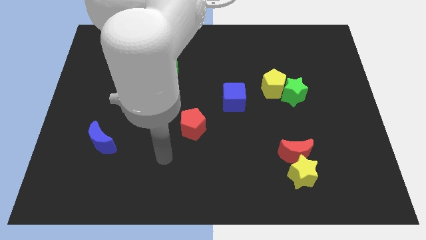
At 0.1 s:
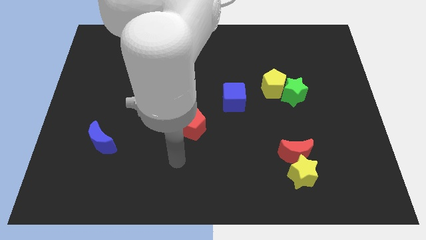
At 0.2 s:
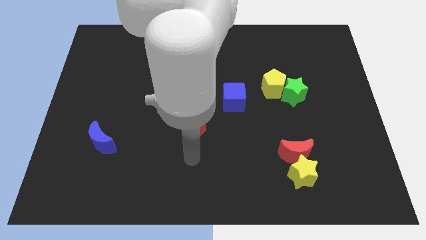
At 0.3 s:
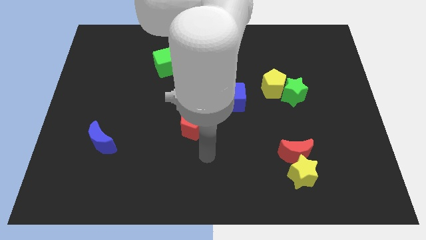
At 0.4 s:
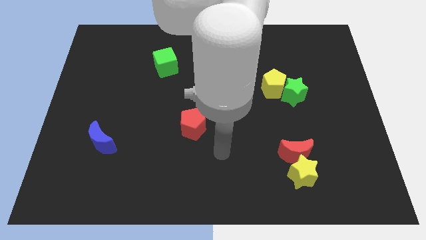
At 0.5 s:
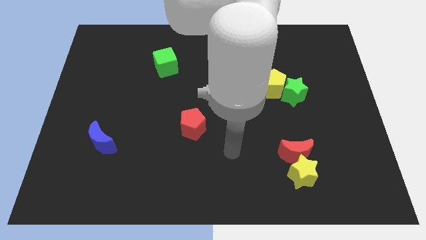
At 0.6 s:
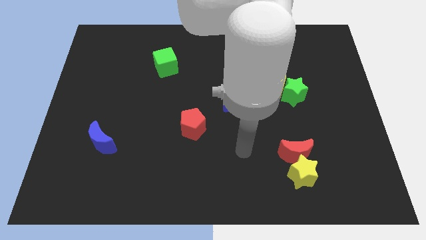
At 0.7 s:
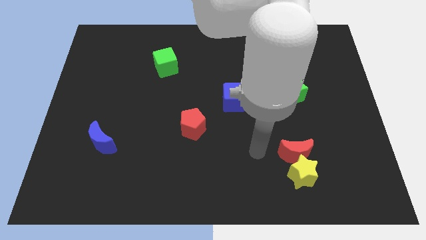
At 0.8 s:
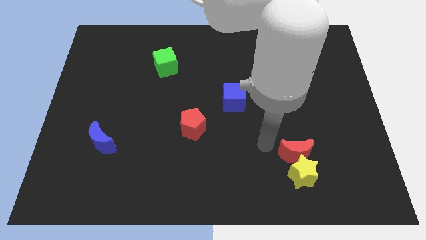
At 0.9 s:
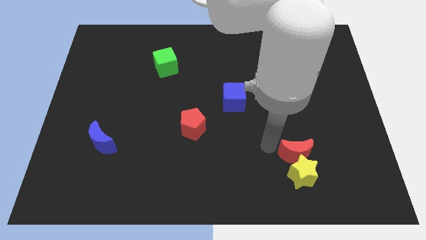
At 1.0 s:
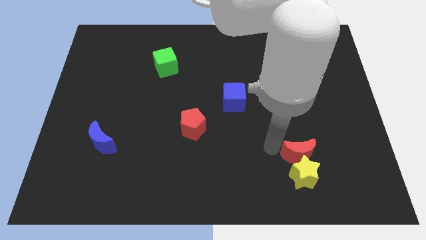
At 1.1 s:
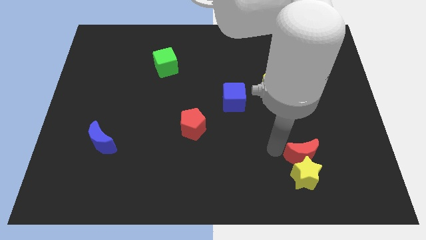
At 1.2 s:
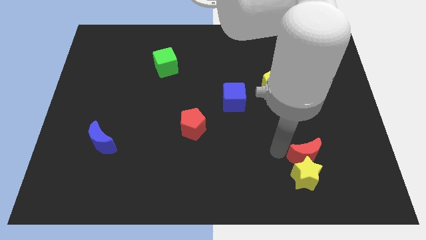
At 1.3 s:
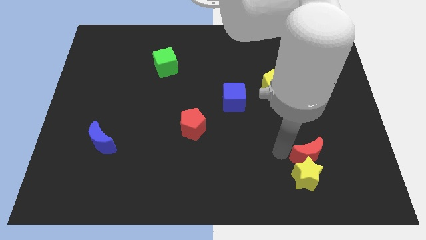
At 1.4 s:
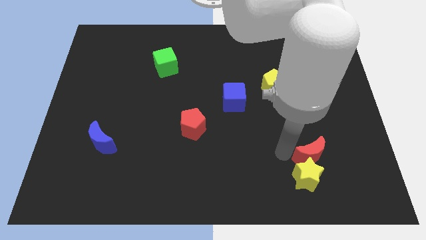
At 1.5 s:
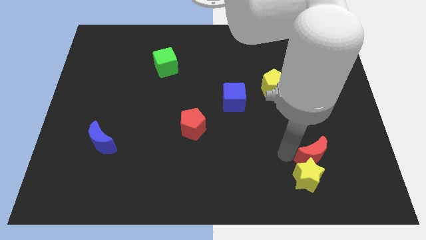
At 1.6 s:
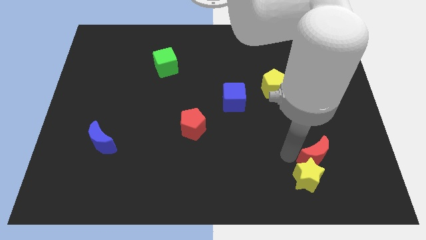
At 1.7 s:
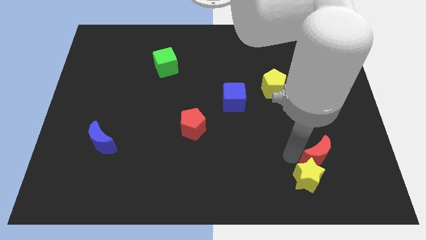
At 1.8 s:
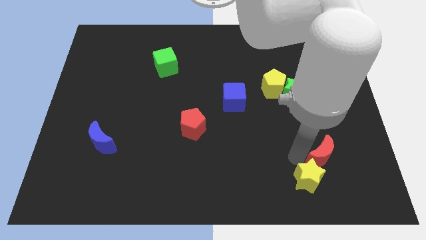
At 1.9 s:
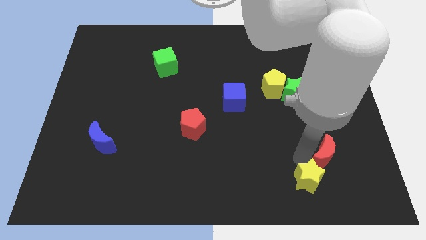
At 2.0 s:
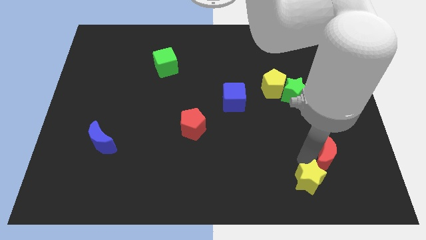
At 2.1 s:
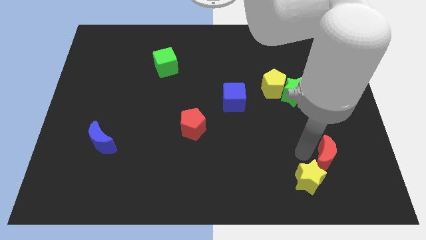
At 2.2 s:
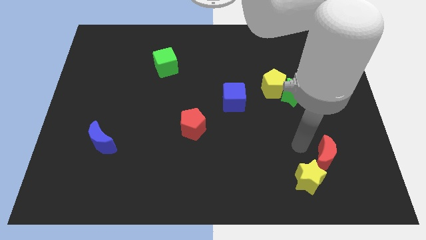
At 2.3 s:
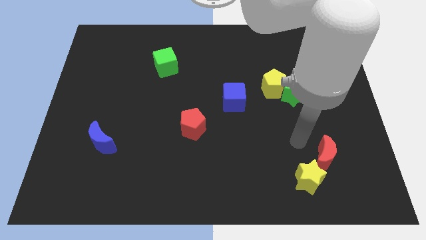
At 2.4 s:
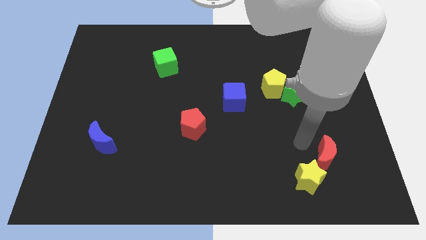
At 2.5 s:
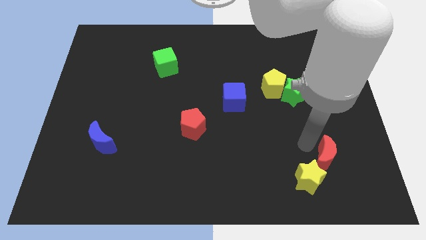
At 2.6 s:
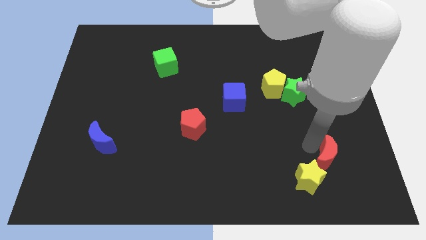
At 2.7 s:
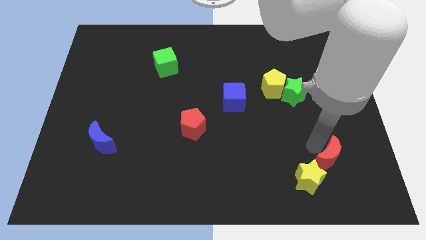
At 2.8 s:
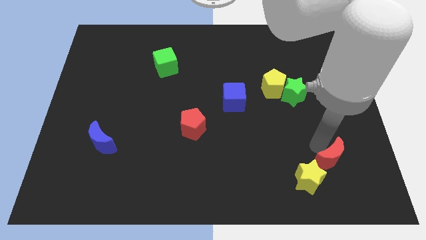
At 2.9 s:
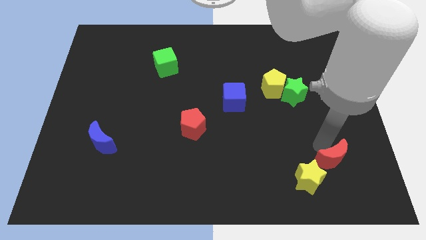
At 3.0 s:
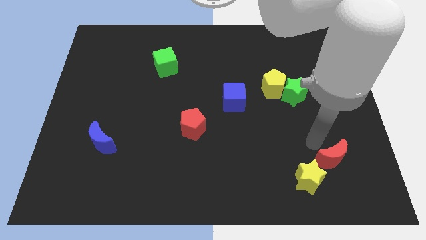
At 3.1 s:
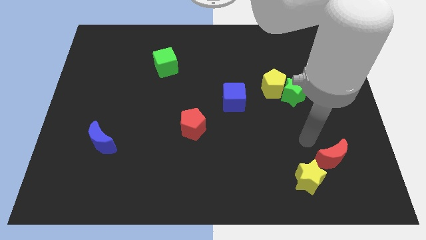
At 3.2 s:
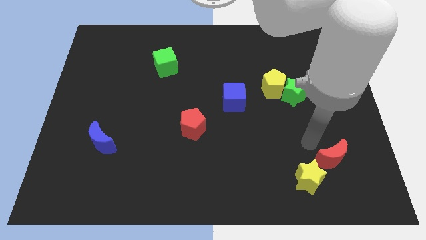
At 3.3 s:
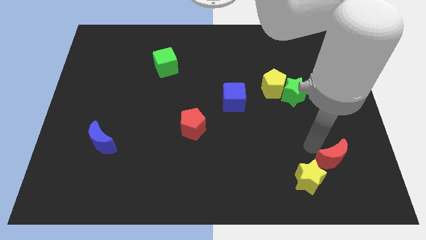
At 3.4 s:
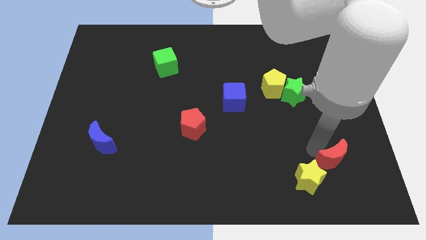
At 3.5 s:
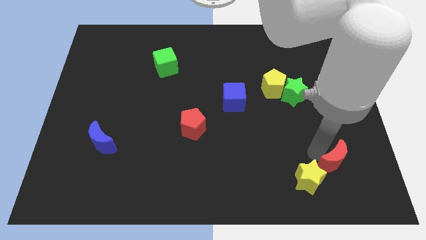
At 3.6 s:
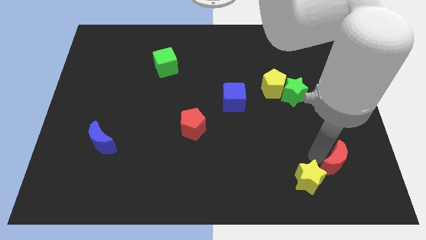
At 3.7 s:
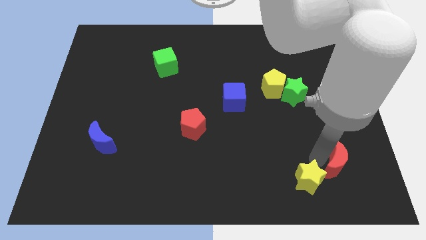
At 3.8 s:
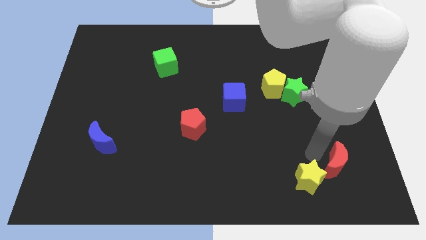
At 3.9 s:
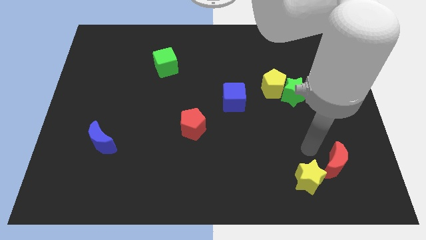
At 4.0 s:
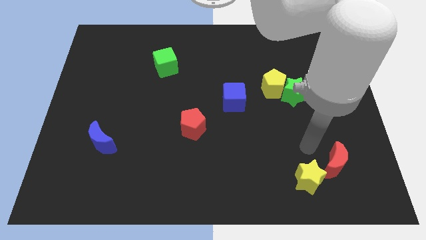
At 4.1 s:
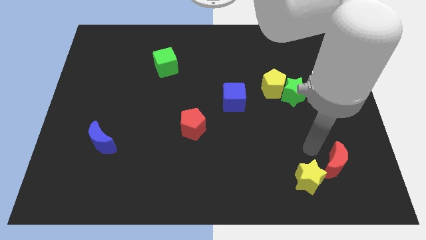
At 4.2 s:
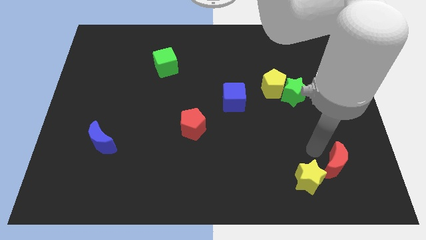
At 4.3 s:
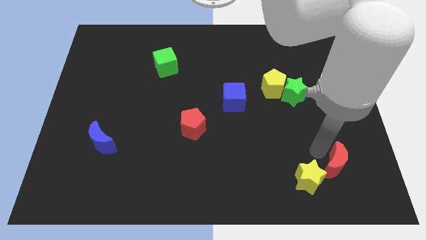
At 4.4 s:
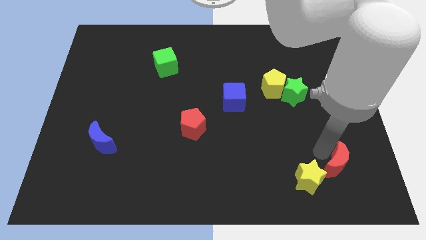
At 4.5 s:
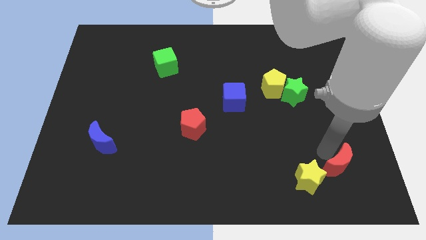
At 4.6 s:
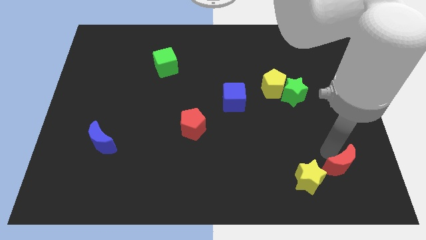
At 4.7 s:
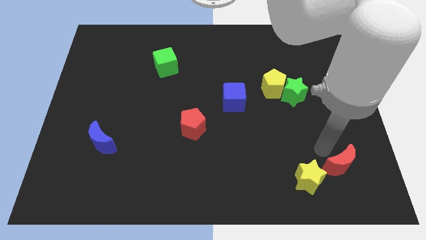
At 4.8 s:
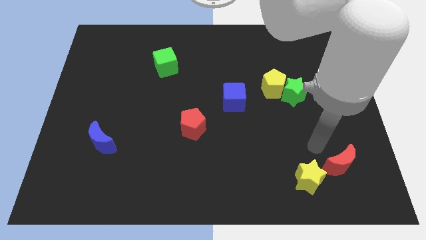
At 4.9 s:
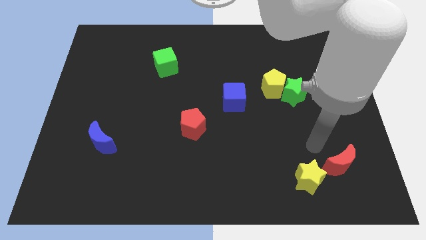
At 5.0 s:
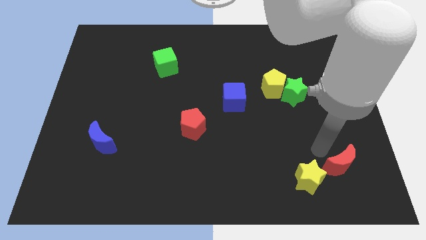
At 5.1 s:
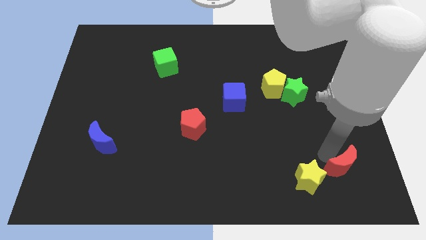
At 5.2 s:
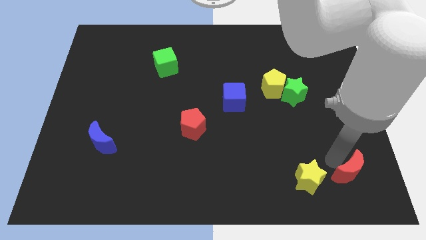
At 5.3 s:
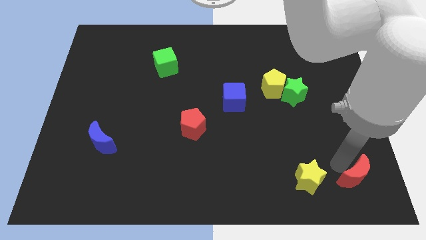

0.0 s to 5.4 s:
push the red moon to the lower right corner
